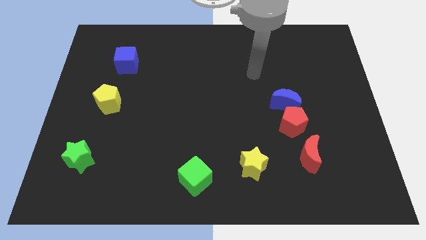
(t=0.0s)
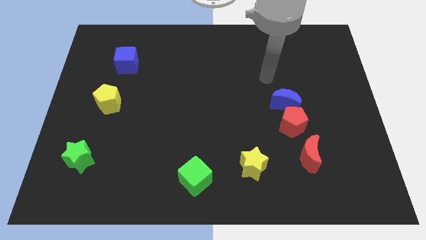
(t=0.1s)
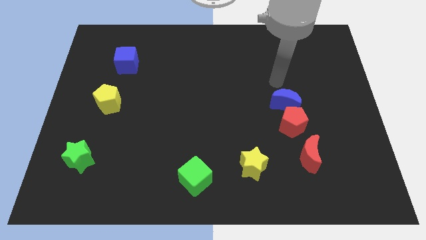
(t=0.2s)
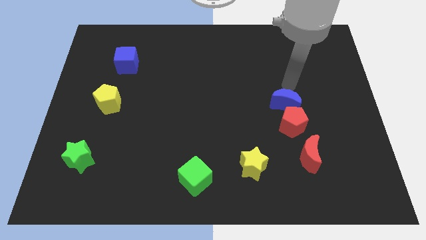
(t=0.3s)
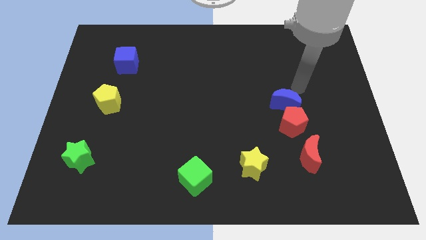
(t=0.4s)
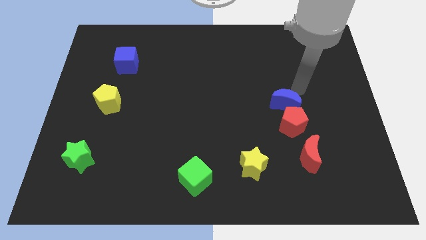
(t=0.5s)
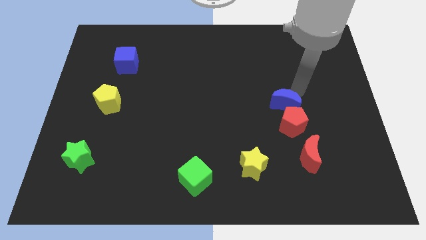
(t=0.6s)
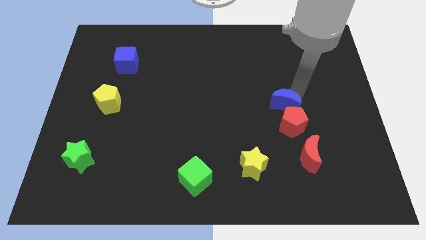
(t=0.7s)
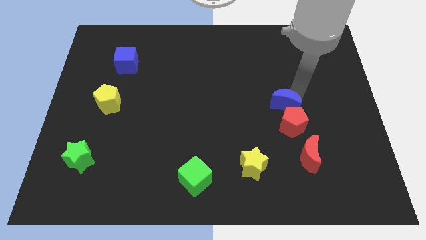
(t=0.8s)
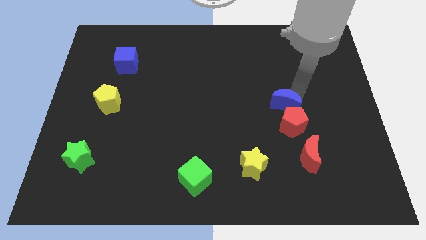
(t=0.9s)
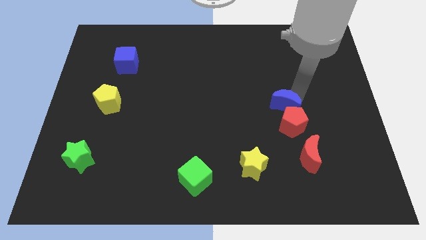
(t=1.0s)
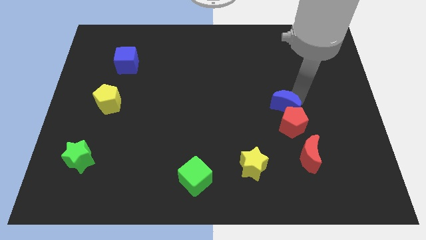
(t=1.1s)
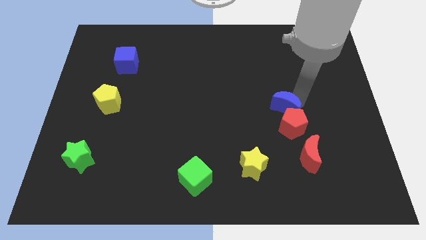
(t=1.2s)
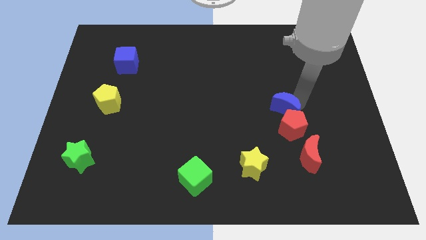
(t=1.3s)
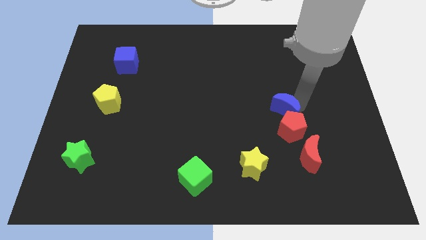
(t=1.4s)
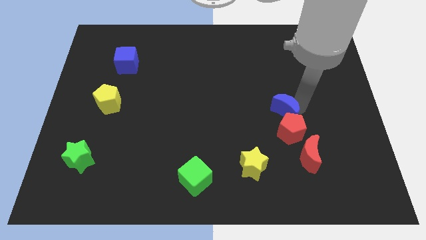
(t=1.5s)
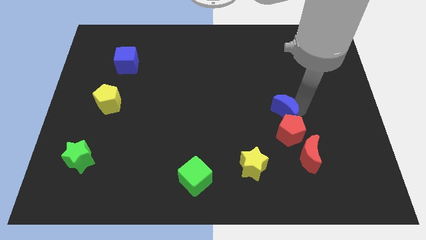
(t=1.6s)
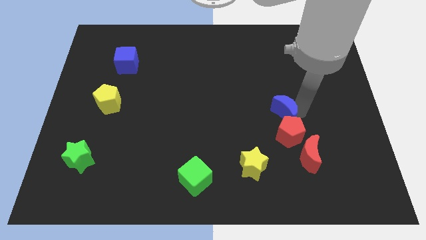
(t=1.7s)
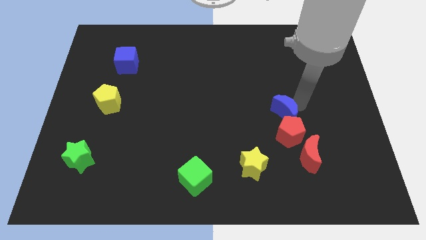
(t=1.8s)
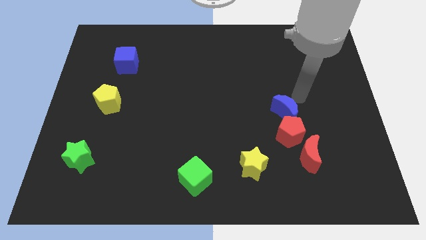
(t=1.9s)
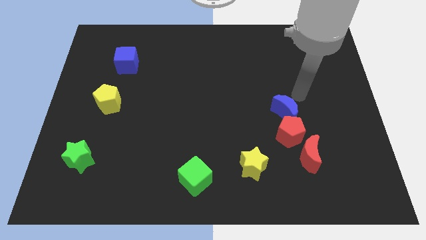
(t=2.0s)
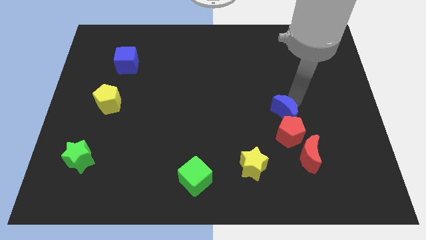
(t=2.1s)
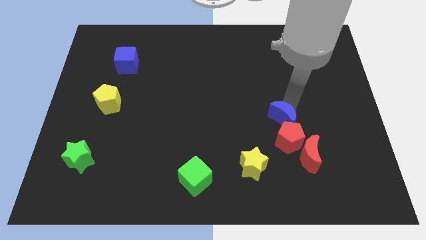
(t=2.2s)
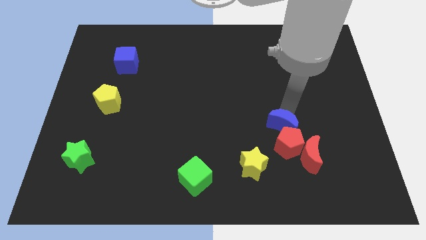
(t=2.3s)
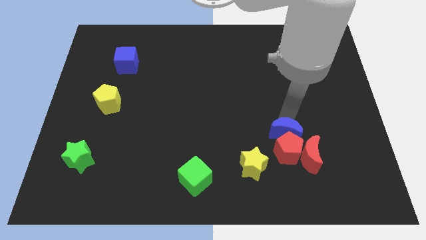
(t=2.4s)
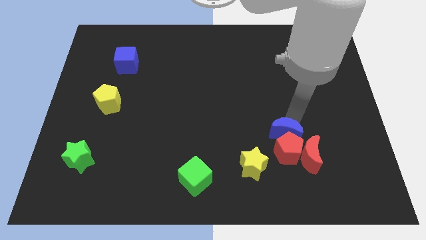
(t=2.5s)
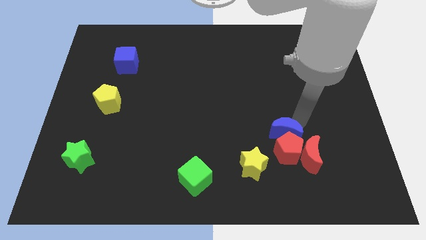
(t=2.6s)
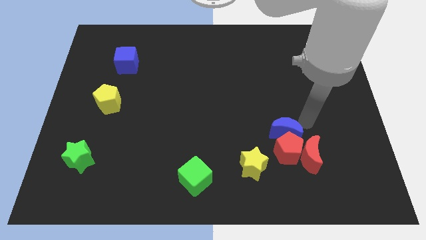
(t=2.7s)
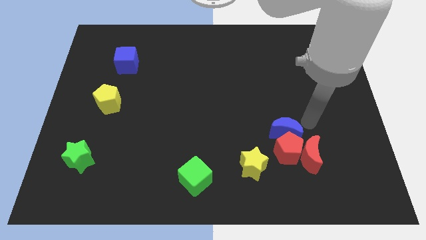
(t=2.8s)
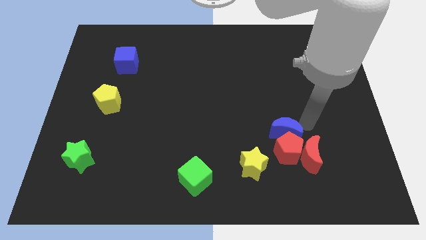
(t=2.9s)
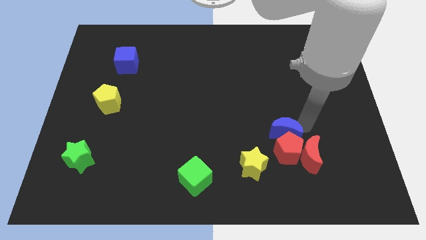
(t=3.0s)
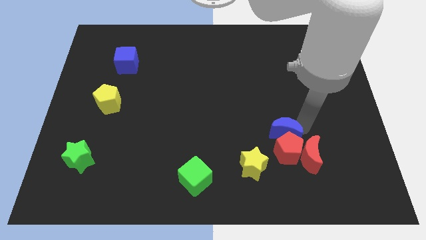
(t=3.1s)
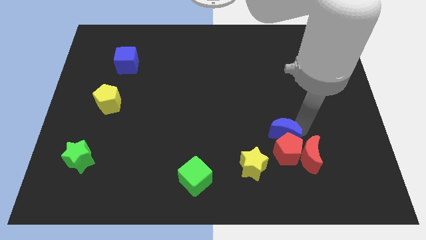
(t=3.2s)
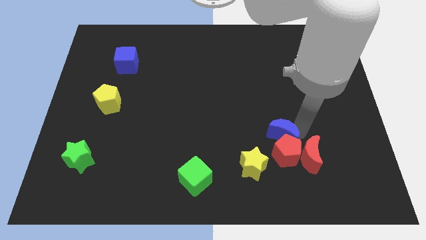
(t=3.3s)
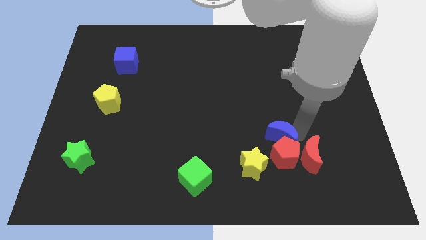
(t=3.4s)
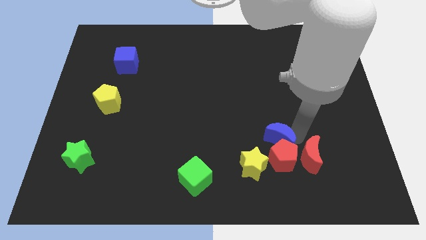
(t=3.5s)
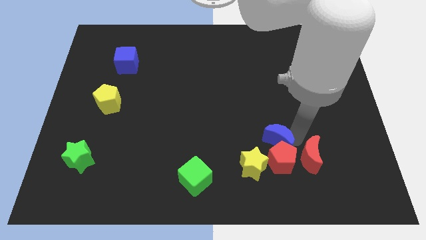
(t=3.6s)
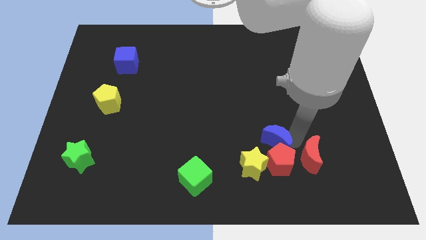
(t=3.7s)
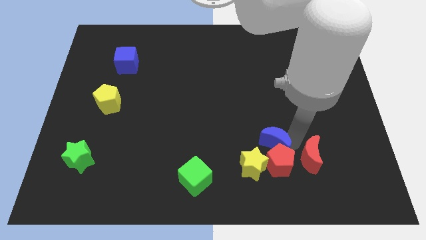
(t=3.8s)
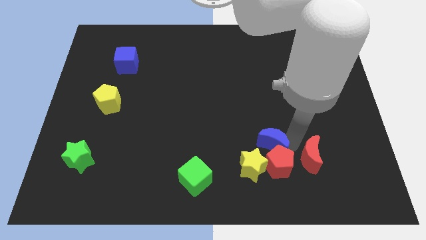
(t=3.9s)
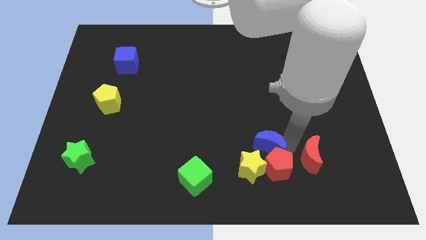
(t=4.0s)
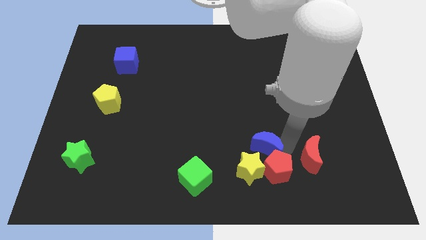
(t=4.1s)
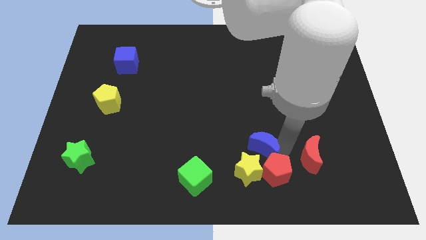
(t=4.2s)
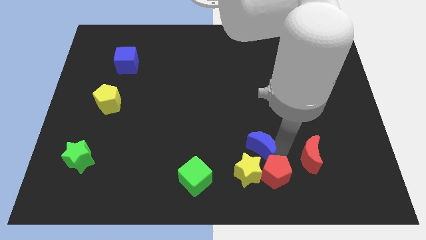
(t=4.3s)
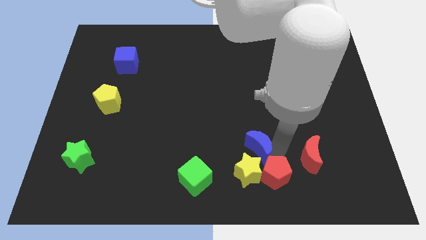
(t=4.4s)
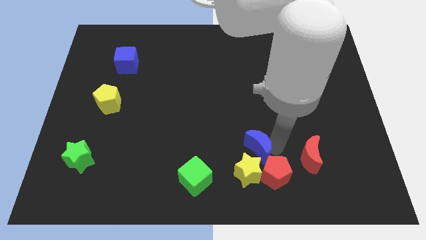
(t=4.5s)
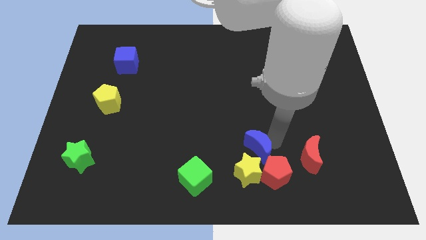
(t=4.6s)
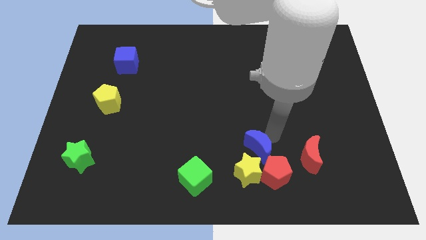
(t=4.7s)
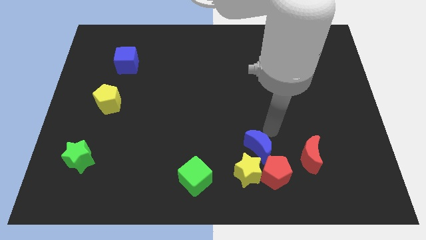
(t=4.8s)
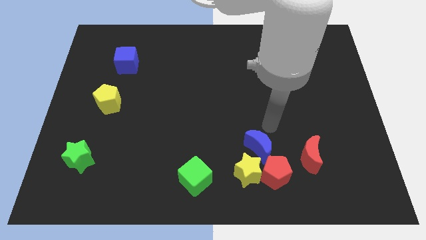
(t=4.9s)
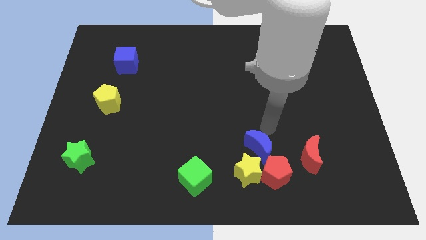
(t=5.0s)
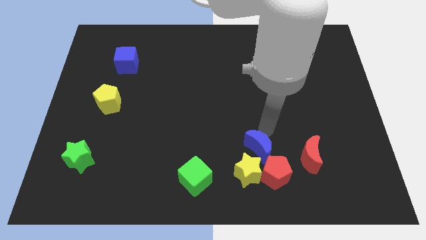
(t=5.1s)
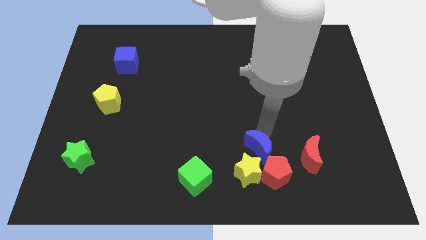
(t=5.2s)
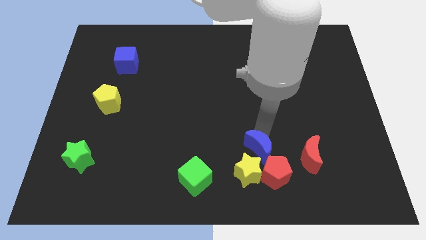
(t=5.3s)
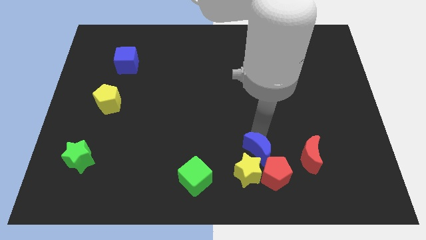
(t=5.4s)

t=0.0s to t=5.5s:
push the blue moon next to the yellow star

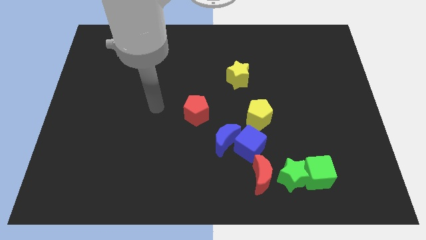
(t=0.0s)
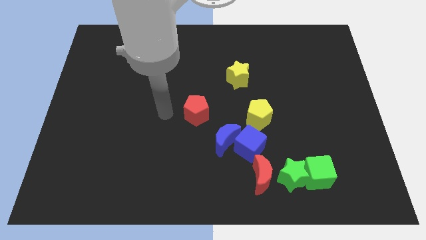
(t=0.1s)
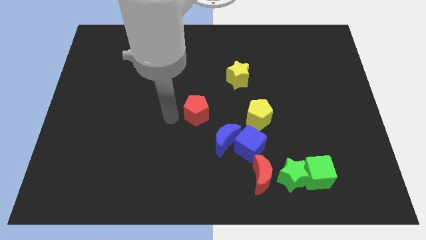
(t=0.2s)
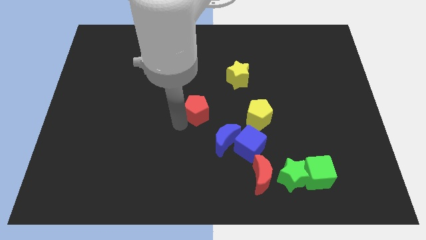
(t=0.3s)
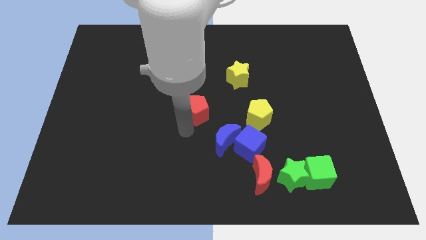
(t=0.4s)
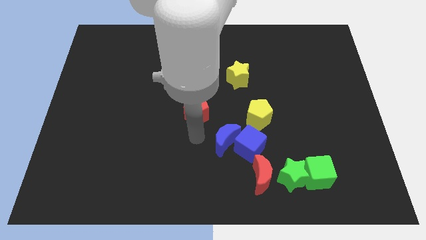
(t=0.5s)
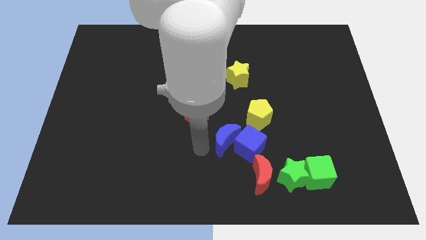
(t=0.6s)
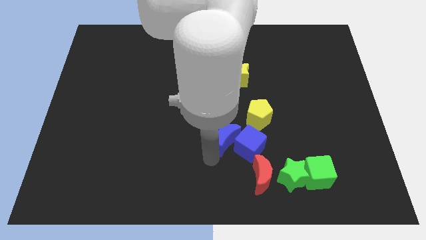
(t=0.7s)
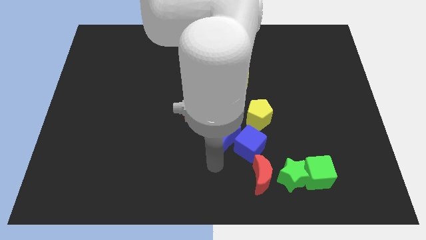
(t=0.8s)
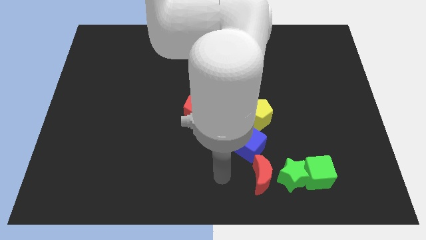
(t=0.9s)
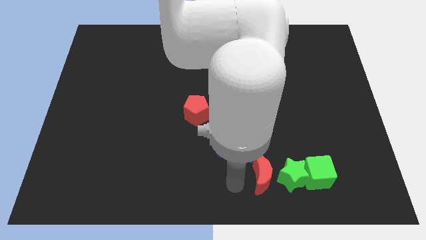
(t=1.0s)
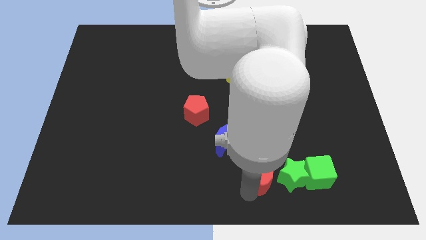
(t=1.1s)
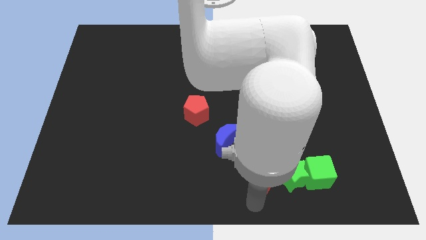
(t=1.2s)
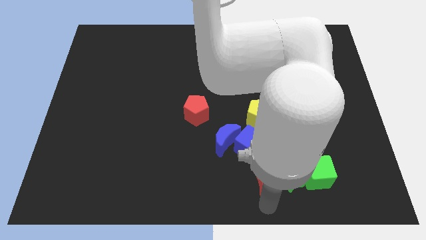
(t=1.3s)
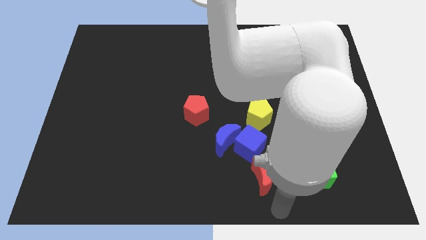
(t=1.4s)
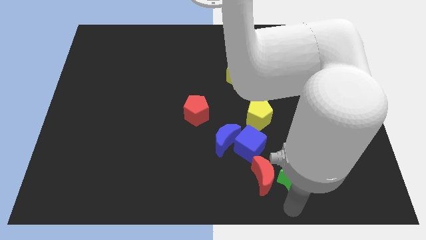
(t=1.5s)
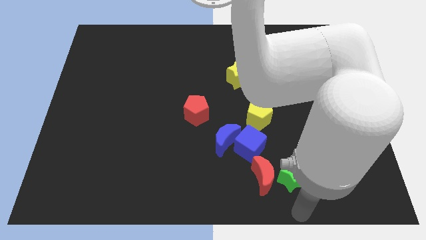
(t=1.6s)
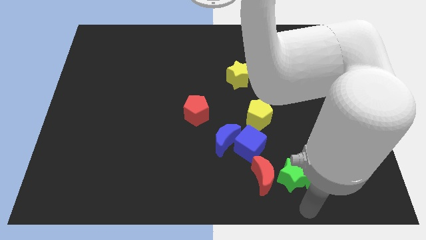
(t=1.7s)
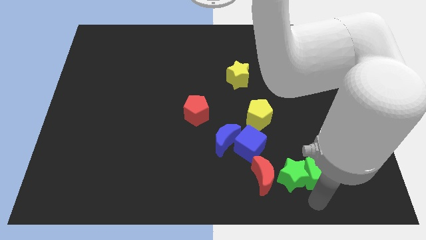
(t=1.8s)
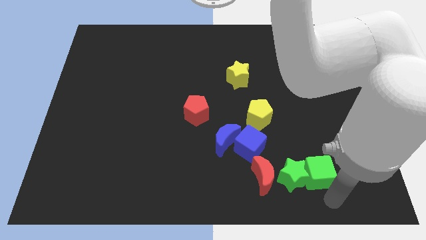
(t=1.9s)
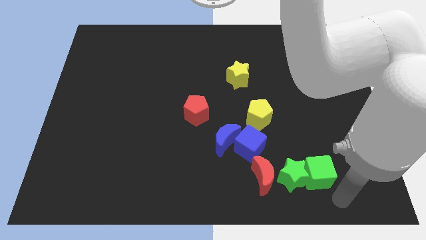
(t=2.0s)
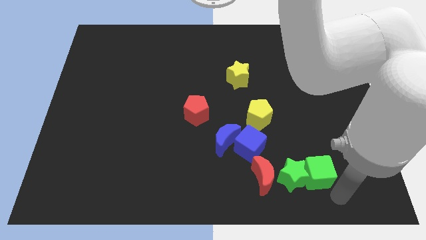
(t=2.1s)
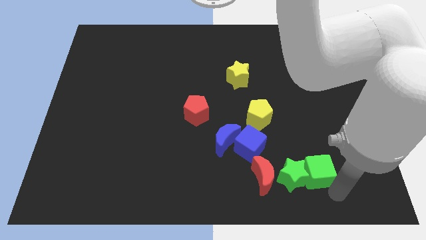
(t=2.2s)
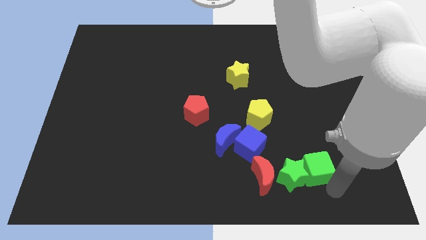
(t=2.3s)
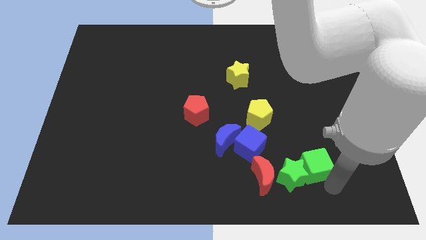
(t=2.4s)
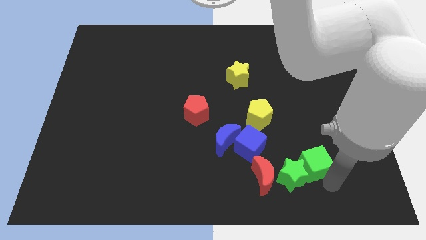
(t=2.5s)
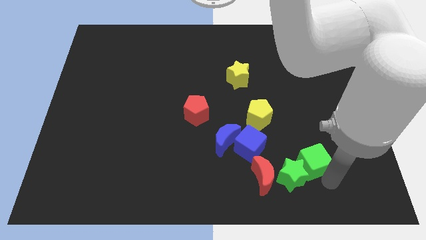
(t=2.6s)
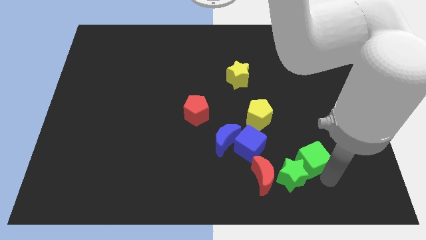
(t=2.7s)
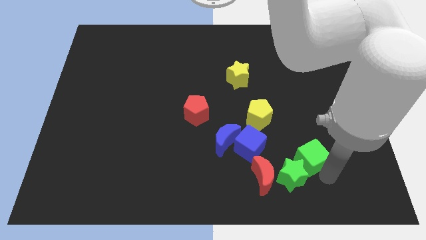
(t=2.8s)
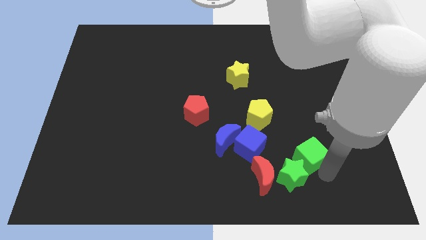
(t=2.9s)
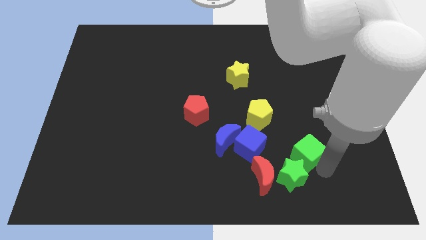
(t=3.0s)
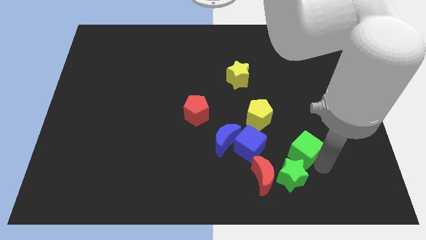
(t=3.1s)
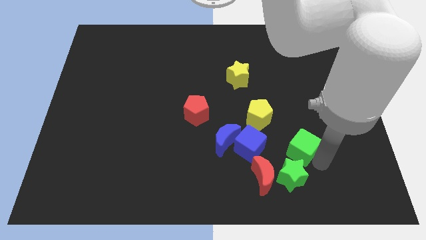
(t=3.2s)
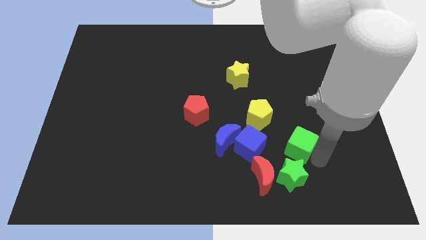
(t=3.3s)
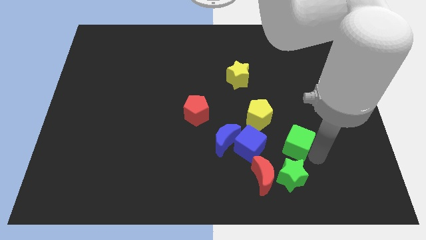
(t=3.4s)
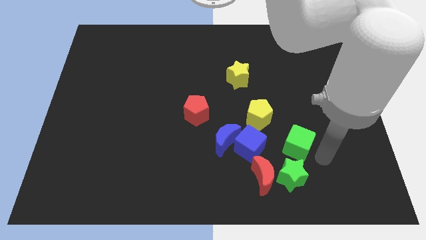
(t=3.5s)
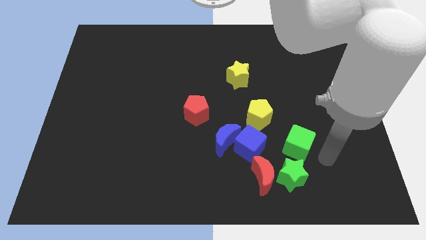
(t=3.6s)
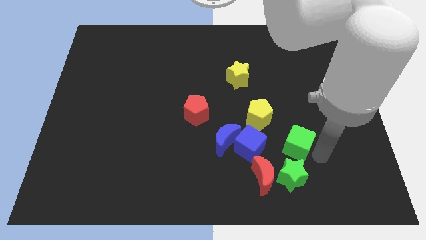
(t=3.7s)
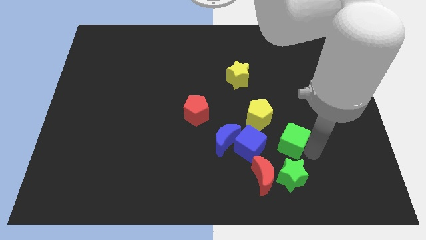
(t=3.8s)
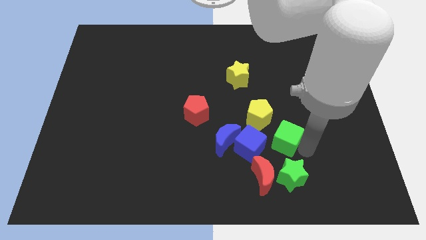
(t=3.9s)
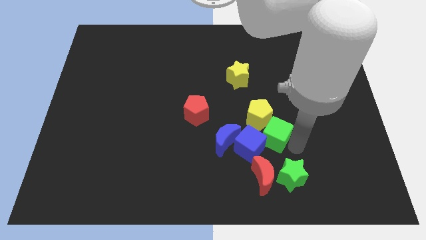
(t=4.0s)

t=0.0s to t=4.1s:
push the green cube towards the yellow pentagon
